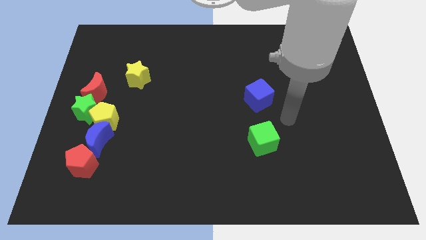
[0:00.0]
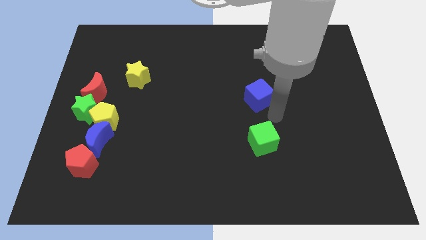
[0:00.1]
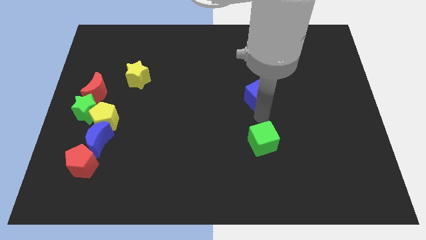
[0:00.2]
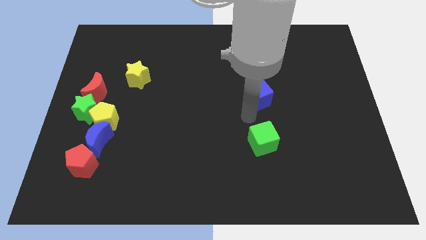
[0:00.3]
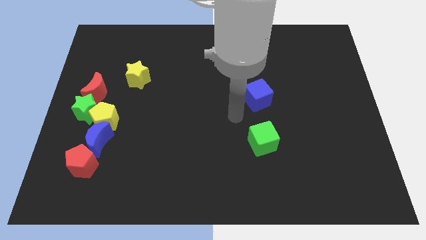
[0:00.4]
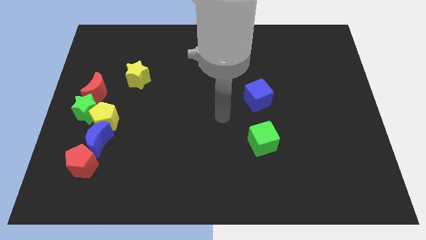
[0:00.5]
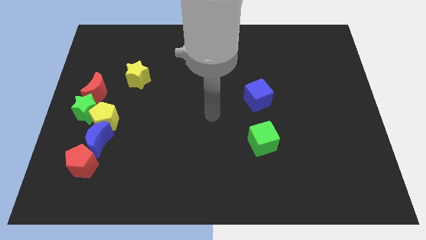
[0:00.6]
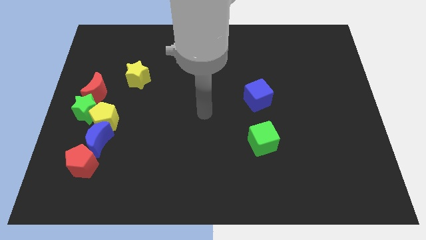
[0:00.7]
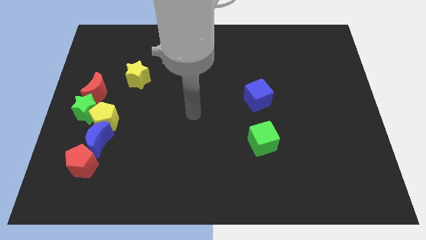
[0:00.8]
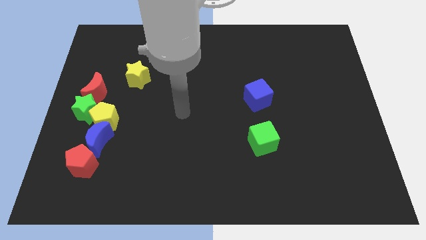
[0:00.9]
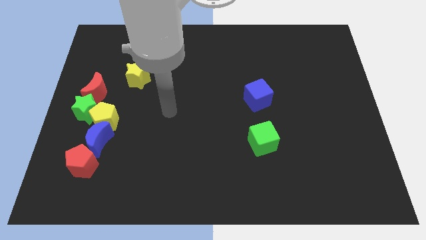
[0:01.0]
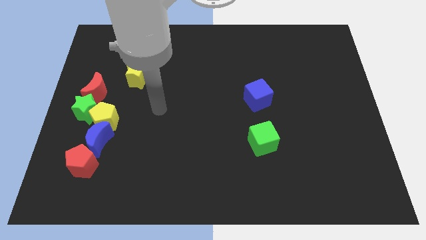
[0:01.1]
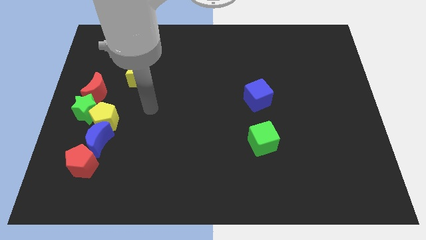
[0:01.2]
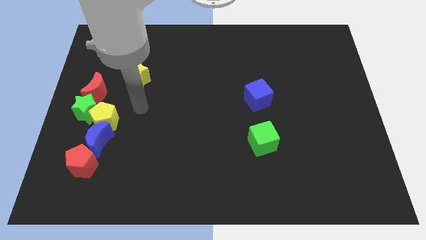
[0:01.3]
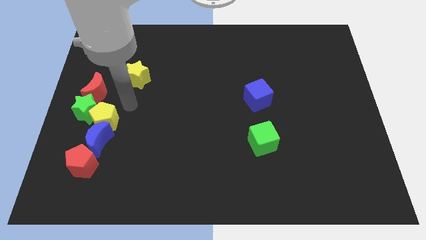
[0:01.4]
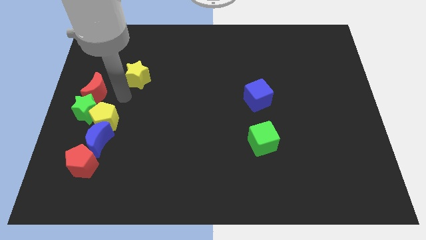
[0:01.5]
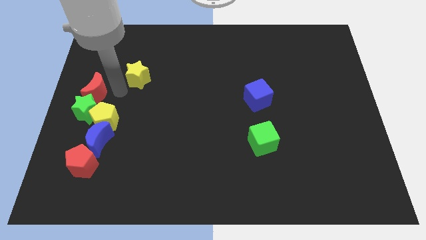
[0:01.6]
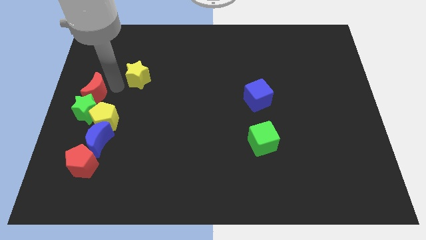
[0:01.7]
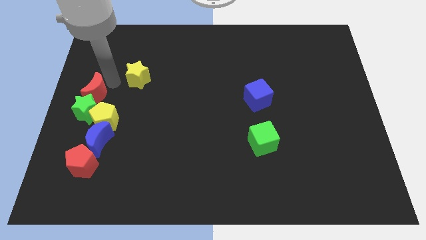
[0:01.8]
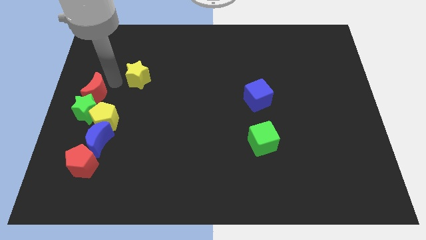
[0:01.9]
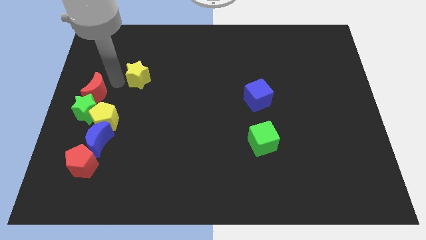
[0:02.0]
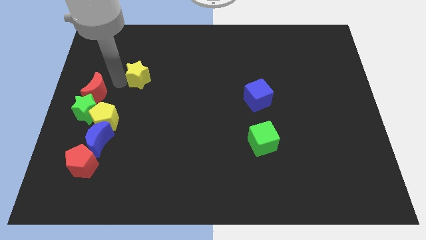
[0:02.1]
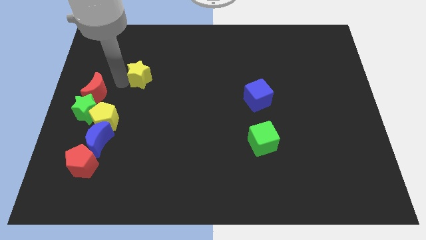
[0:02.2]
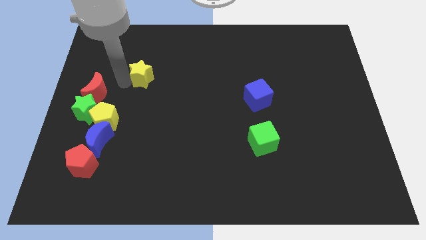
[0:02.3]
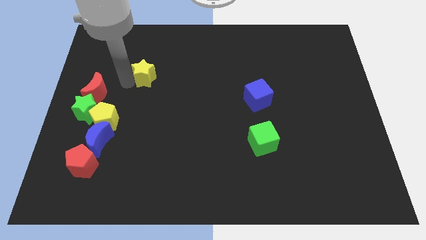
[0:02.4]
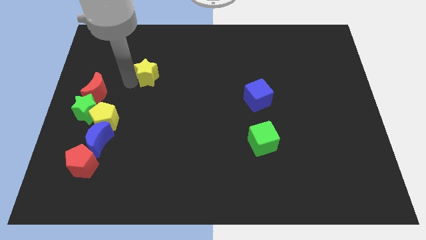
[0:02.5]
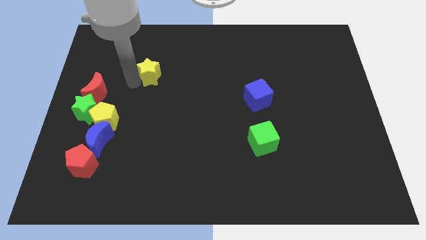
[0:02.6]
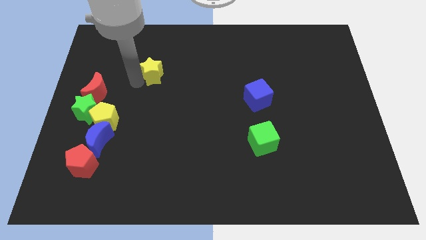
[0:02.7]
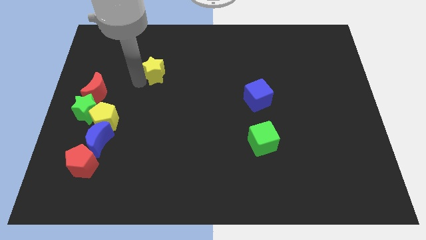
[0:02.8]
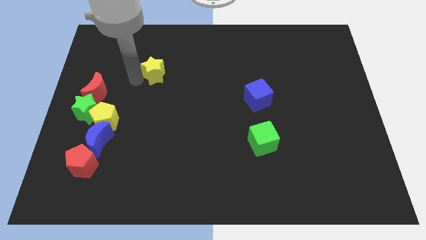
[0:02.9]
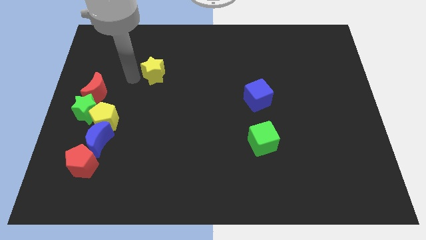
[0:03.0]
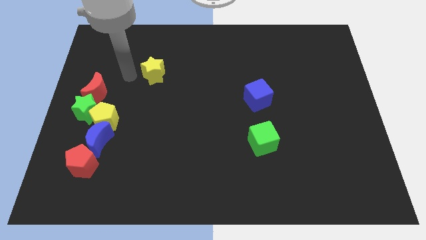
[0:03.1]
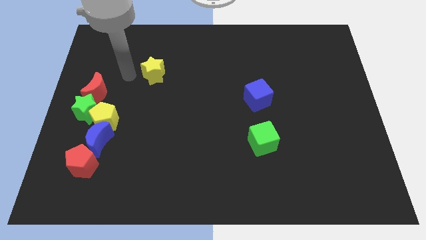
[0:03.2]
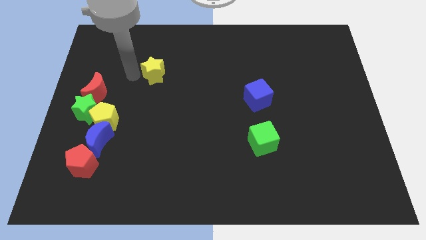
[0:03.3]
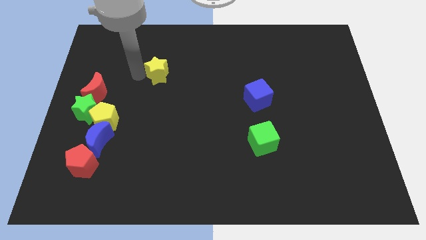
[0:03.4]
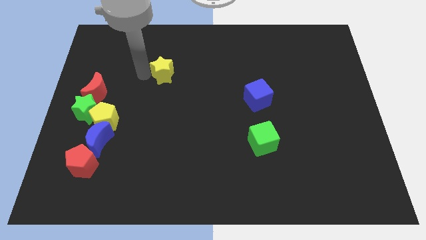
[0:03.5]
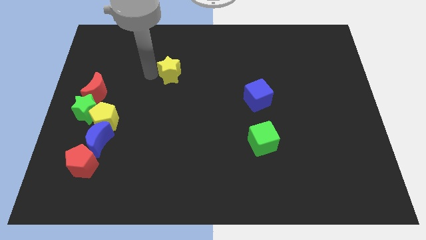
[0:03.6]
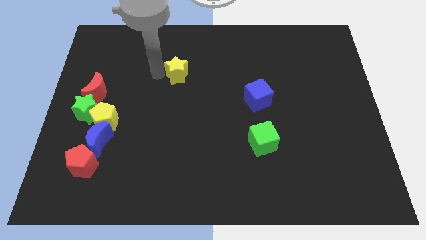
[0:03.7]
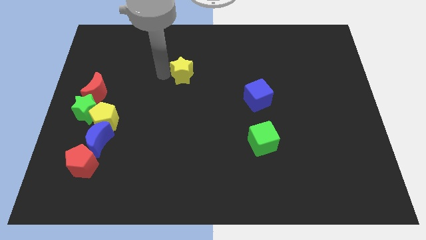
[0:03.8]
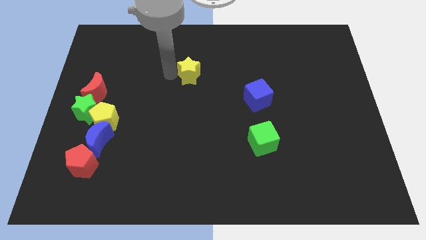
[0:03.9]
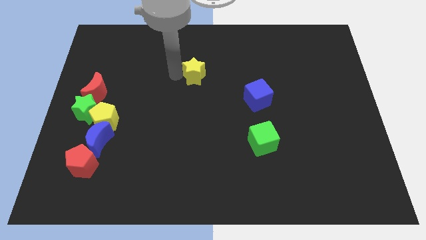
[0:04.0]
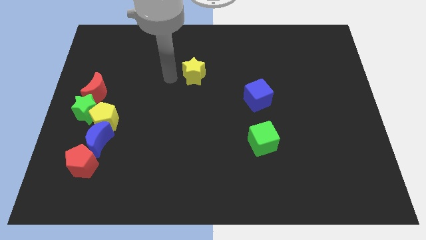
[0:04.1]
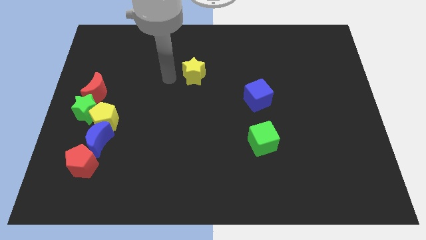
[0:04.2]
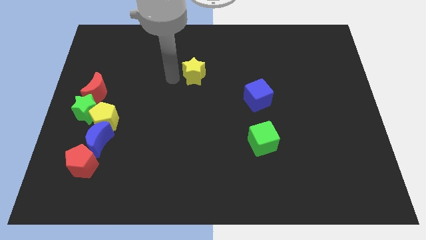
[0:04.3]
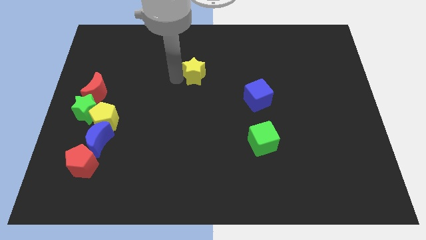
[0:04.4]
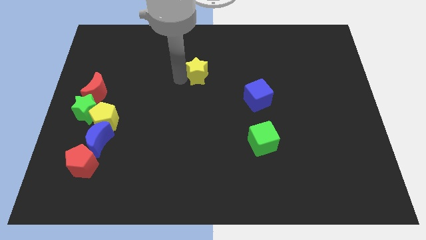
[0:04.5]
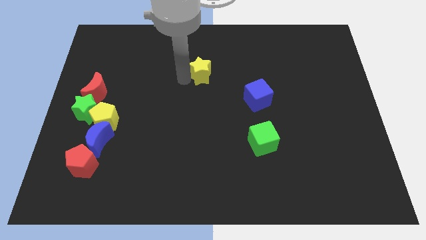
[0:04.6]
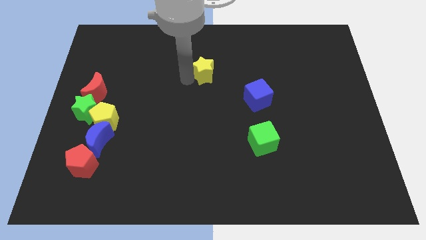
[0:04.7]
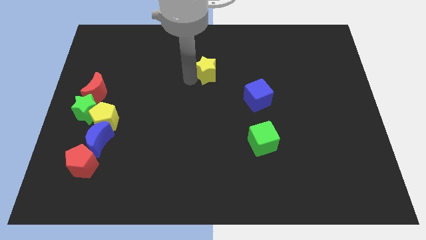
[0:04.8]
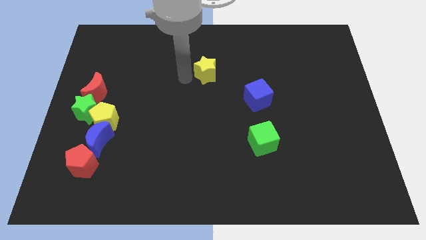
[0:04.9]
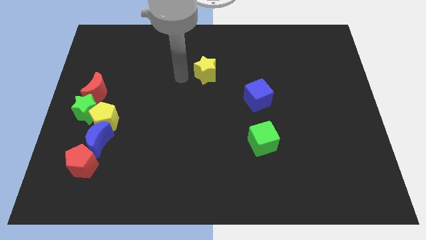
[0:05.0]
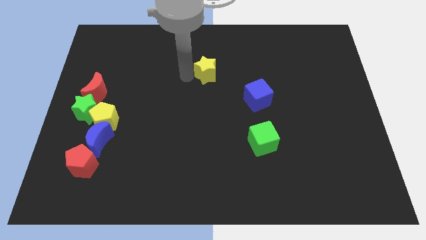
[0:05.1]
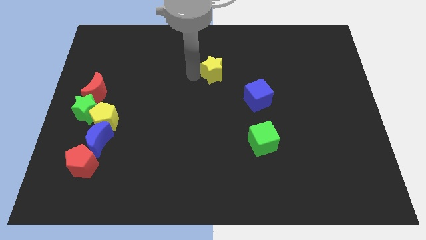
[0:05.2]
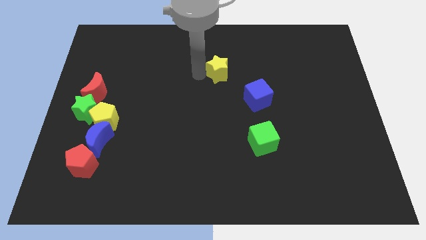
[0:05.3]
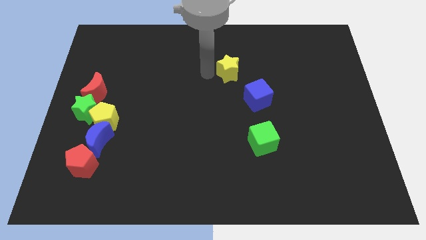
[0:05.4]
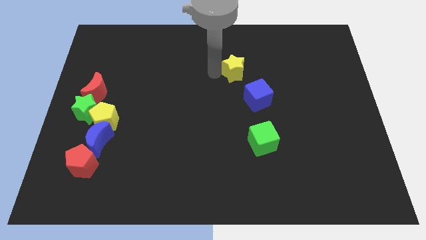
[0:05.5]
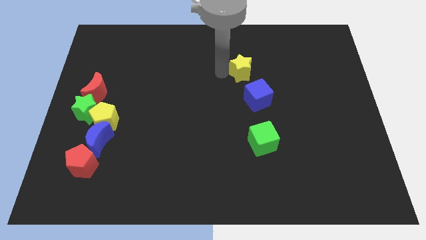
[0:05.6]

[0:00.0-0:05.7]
push the yellow star above the blue cube

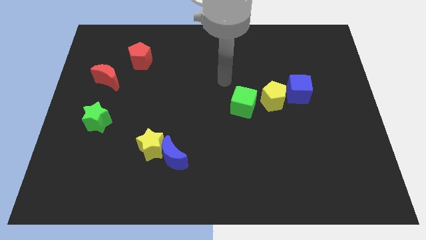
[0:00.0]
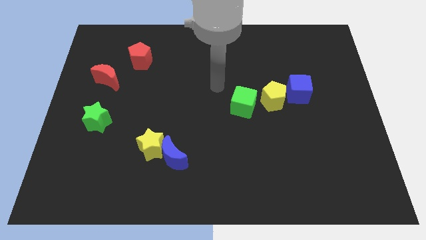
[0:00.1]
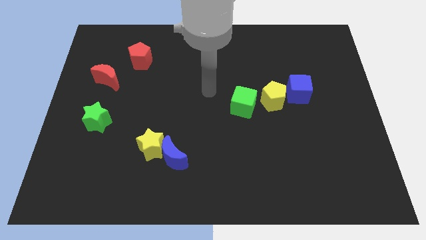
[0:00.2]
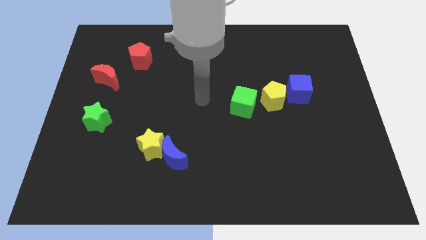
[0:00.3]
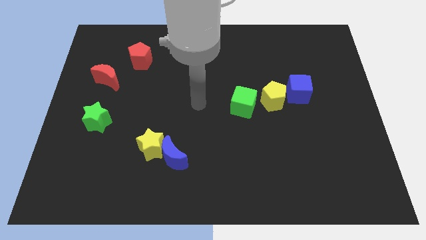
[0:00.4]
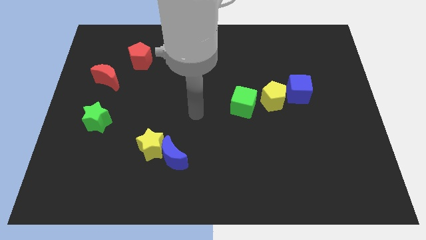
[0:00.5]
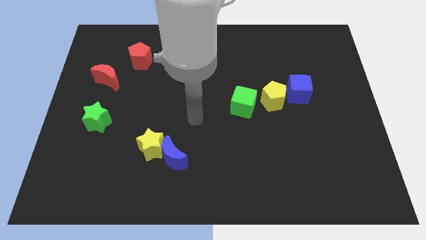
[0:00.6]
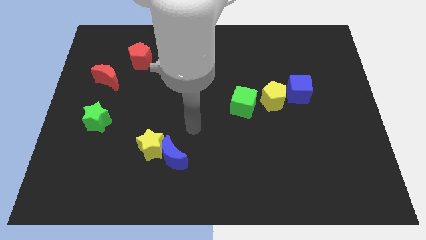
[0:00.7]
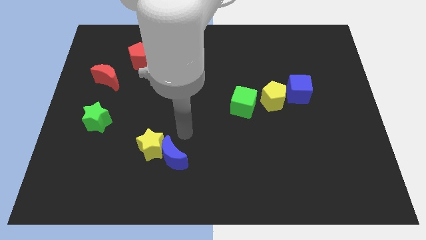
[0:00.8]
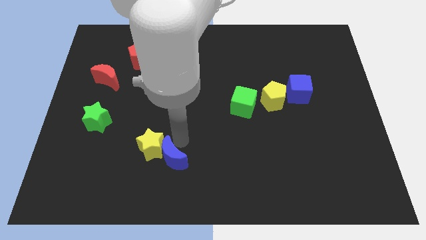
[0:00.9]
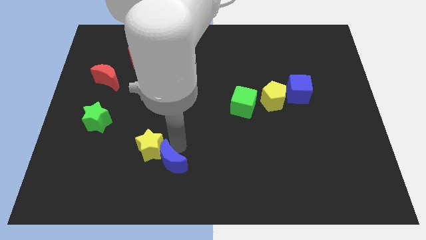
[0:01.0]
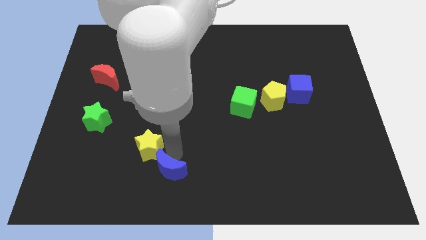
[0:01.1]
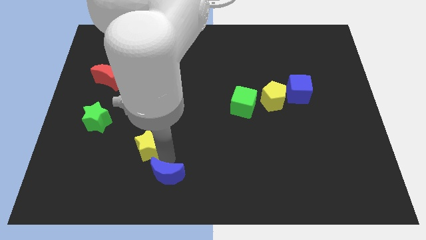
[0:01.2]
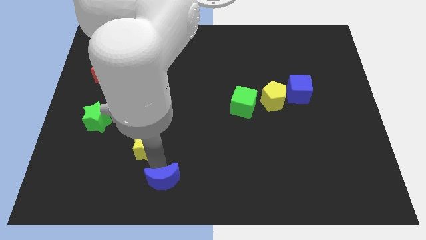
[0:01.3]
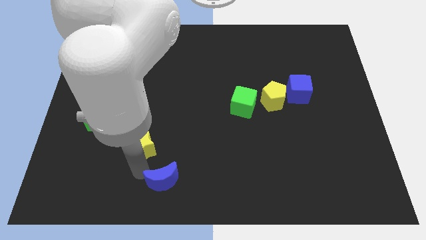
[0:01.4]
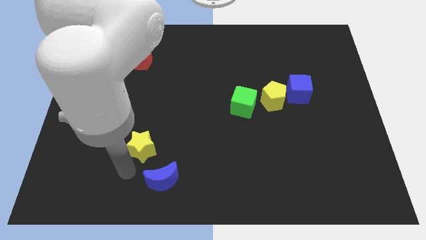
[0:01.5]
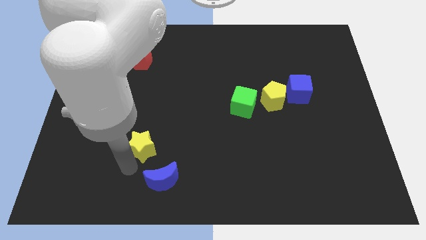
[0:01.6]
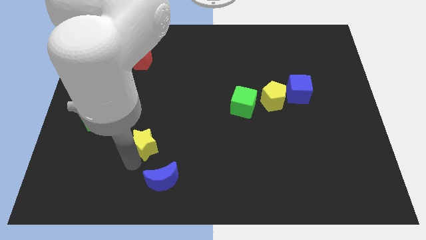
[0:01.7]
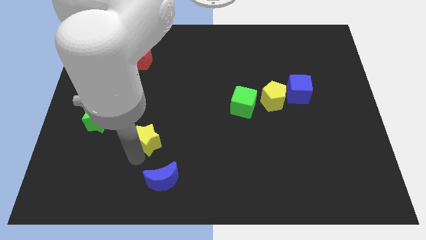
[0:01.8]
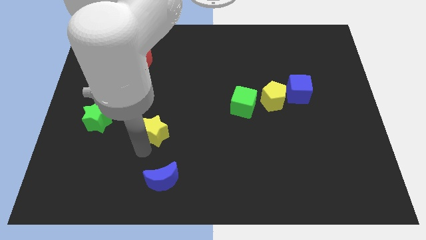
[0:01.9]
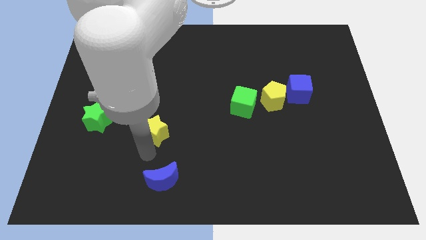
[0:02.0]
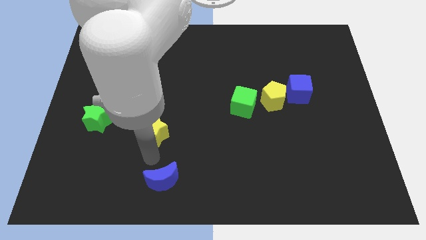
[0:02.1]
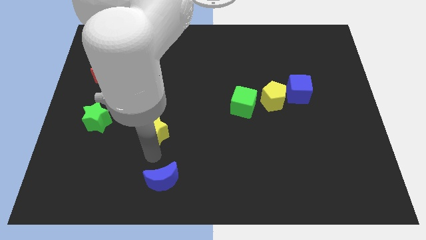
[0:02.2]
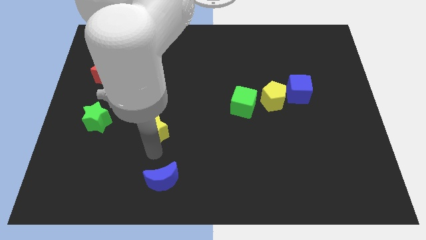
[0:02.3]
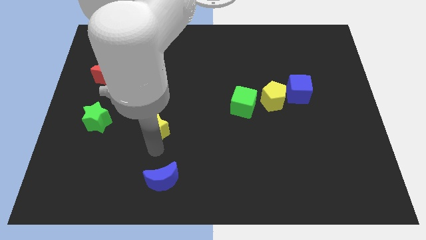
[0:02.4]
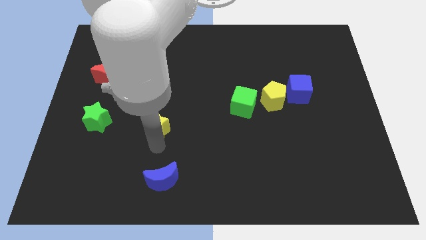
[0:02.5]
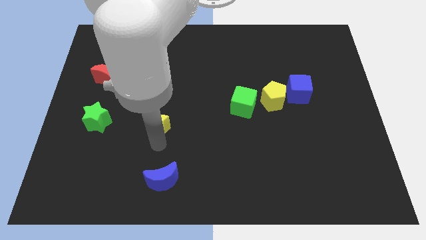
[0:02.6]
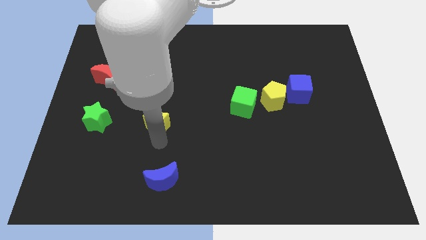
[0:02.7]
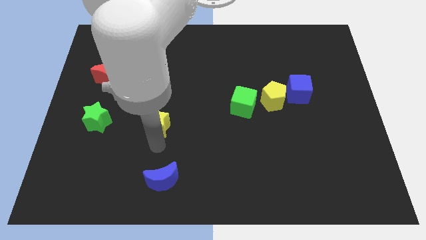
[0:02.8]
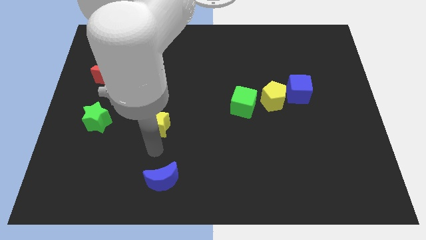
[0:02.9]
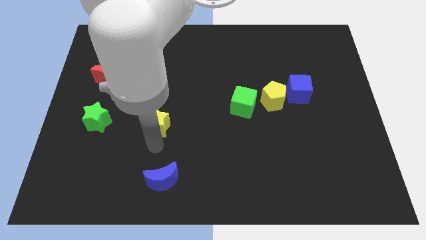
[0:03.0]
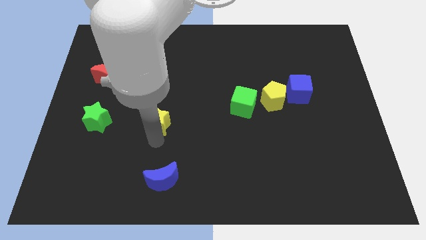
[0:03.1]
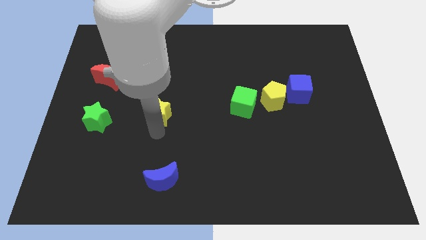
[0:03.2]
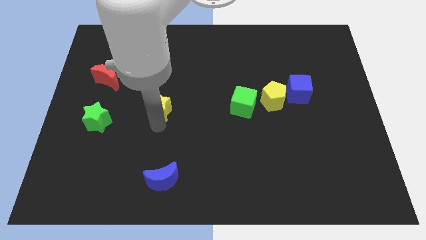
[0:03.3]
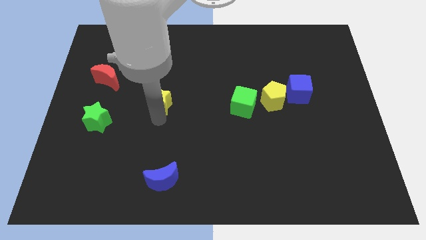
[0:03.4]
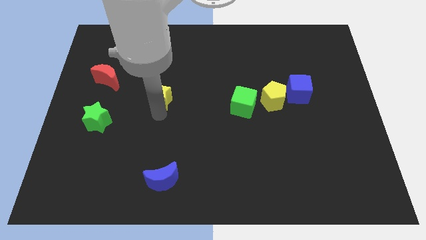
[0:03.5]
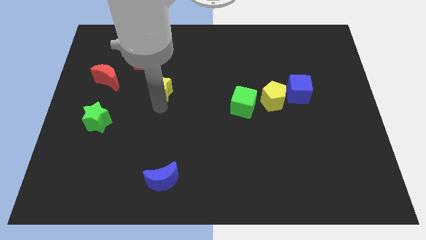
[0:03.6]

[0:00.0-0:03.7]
slide the yellow star to the bottom right side of the red pentagon
